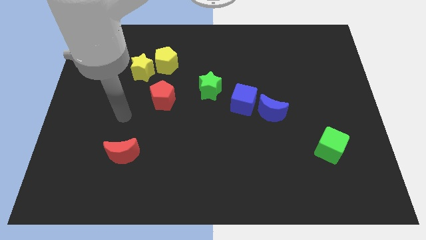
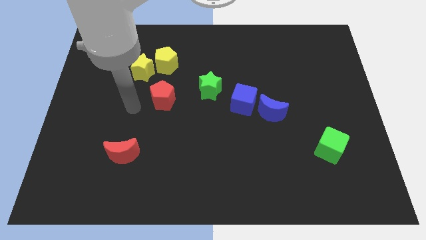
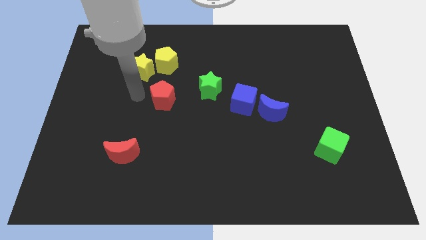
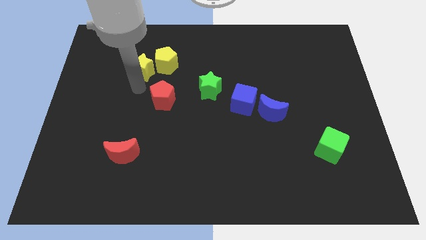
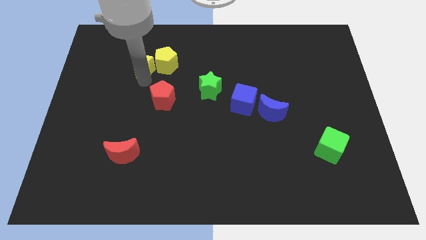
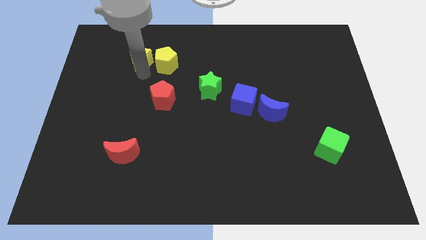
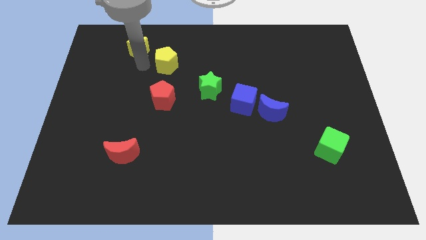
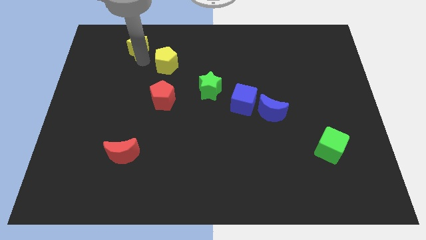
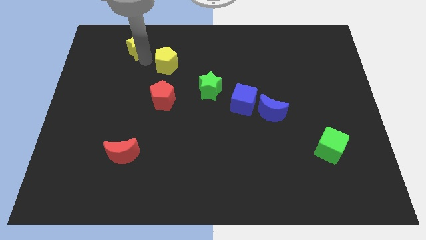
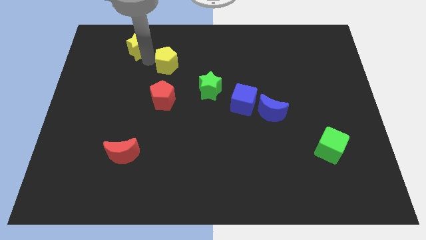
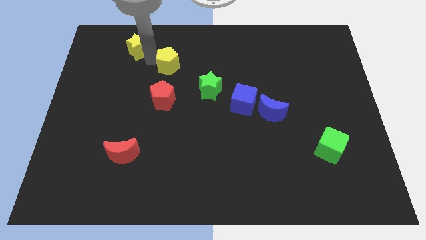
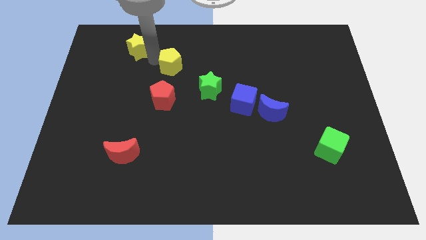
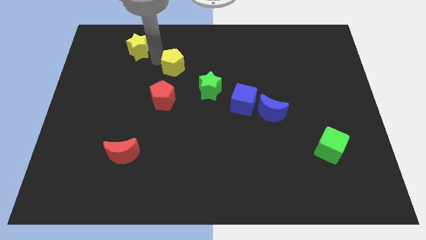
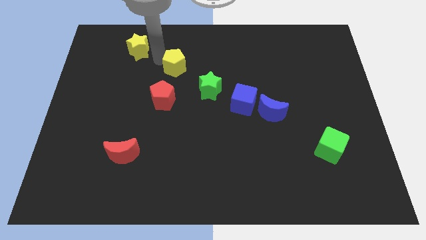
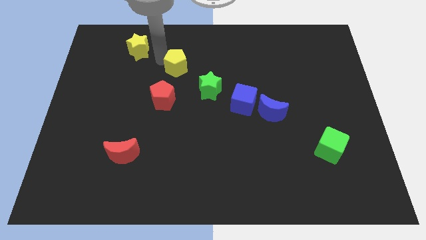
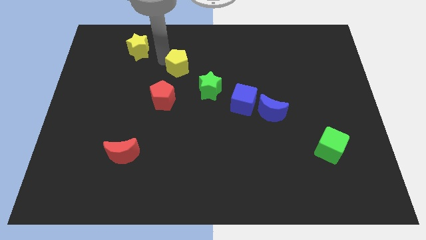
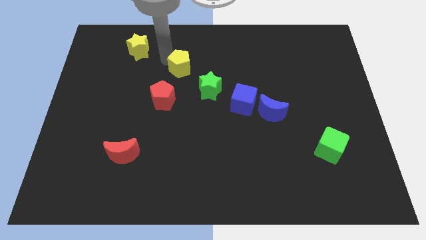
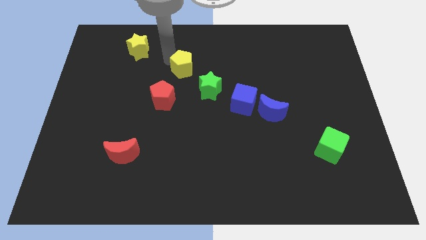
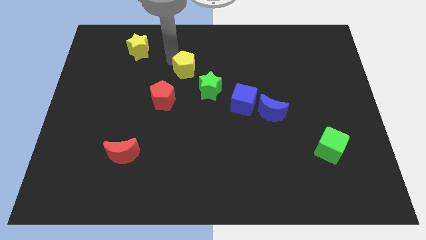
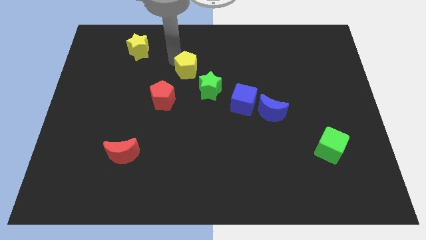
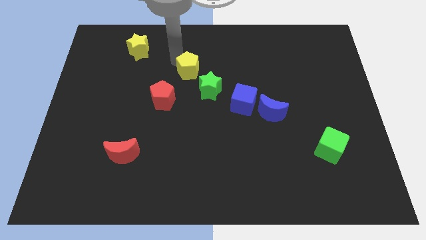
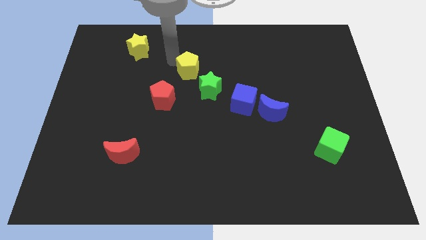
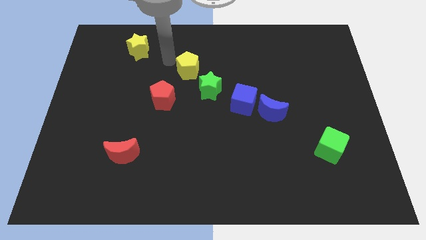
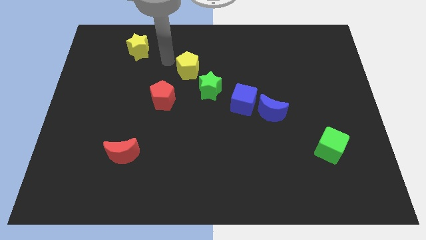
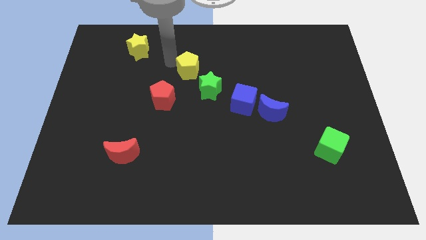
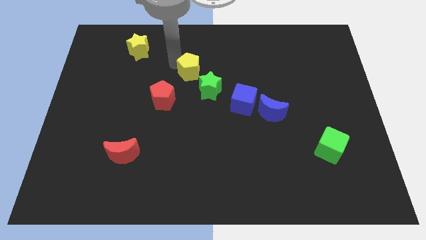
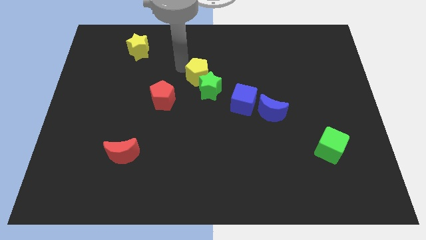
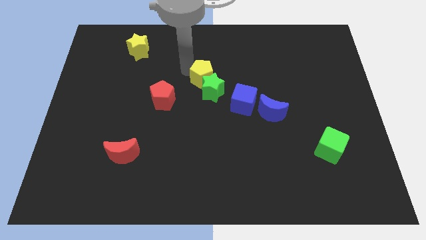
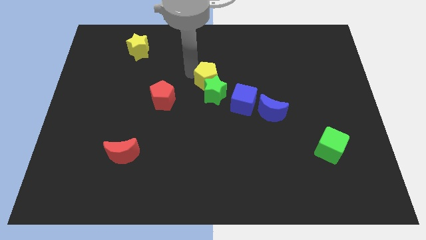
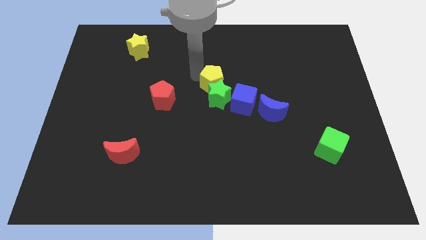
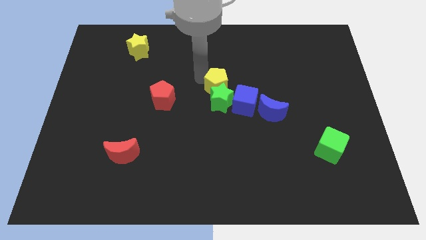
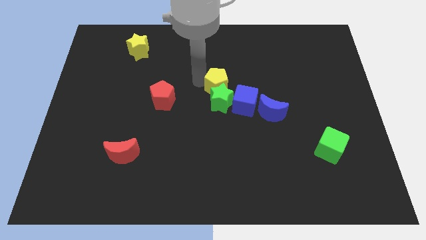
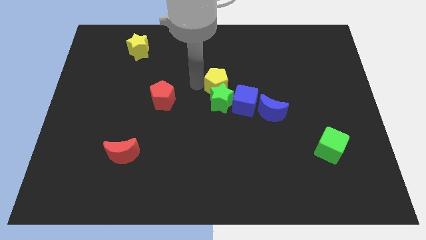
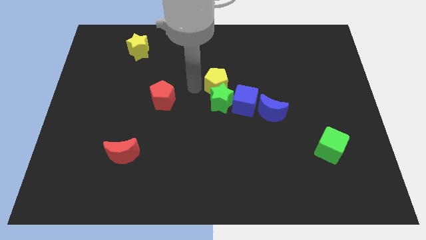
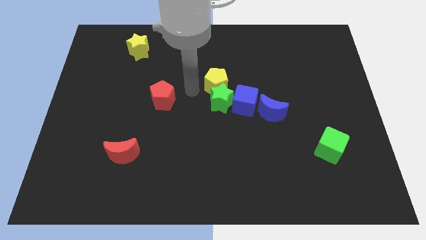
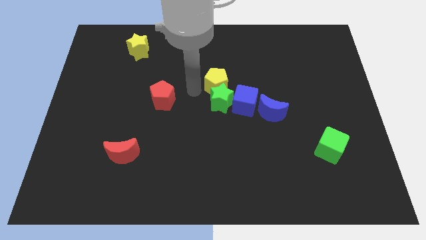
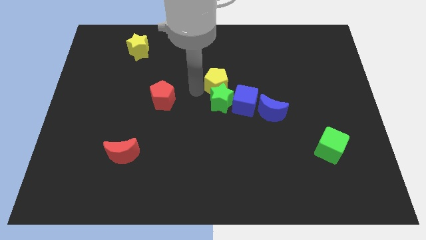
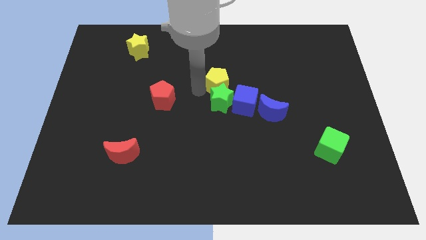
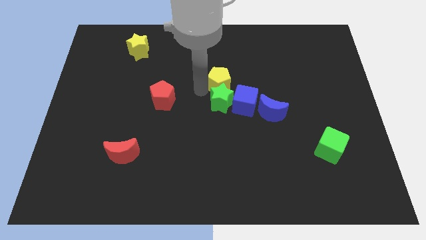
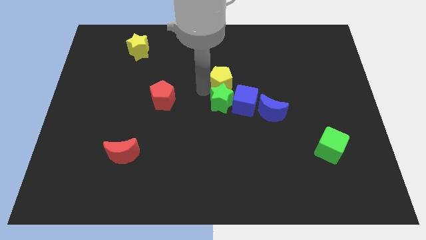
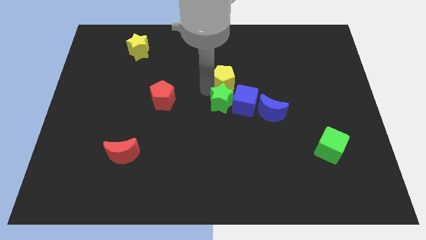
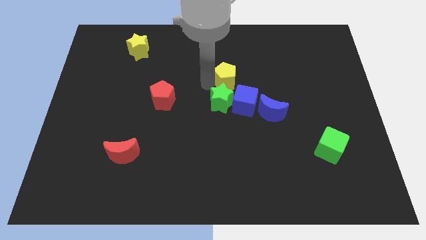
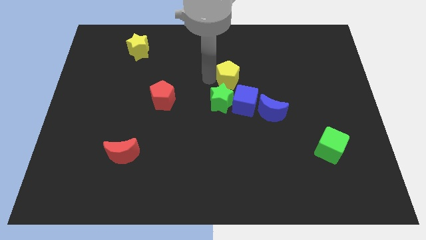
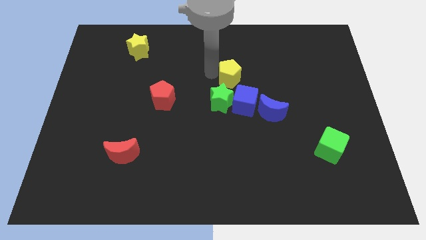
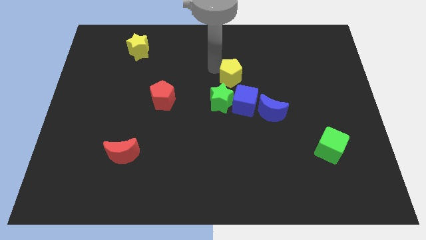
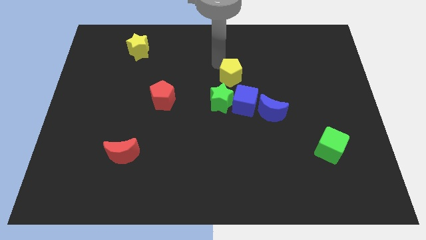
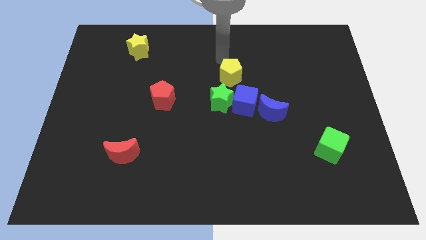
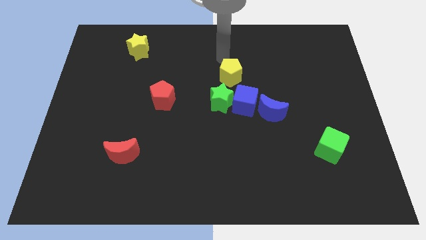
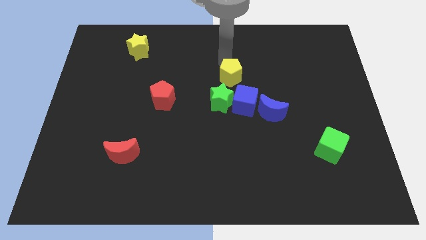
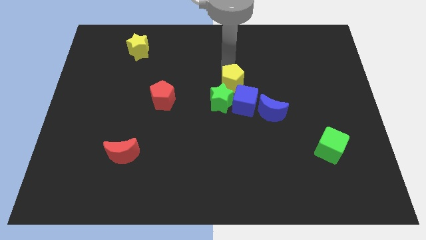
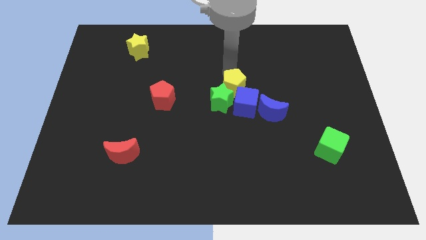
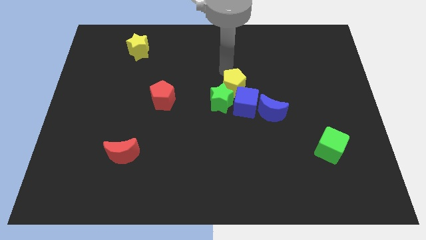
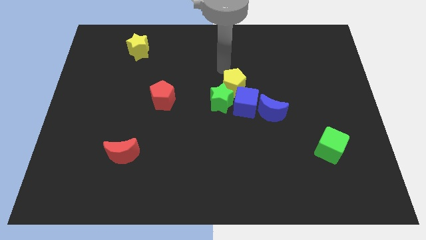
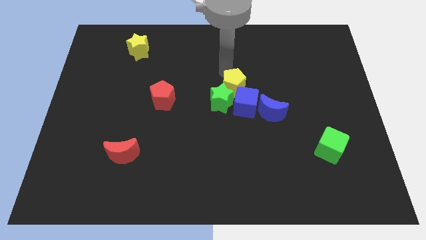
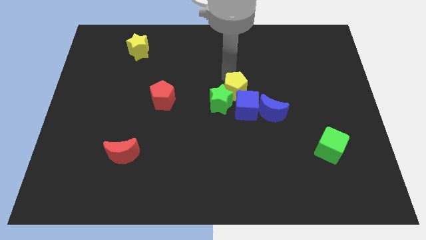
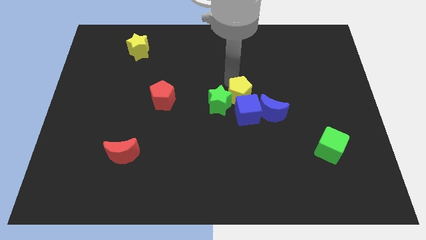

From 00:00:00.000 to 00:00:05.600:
push the yellow pentagon close to the blue cube

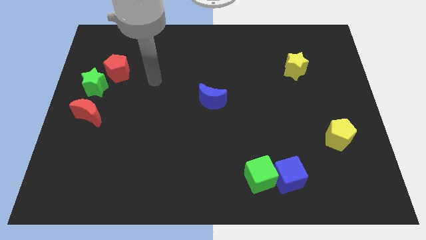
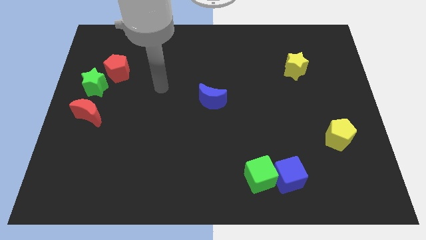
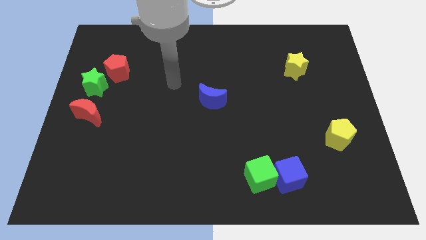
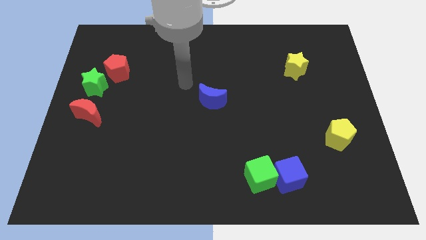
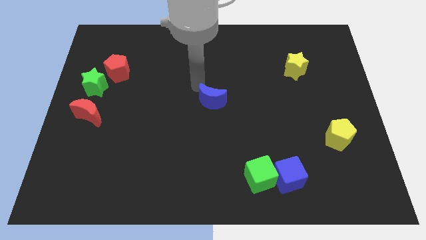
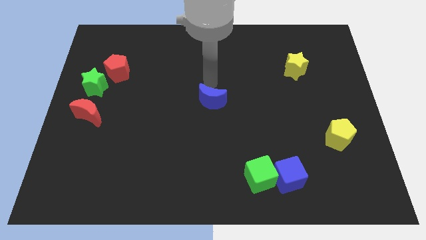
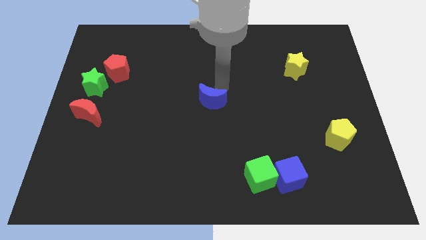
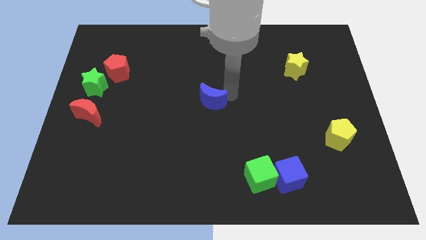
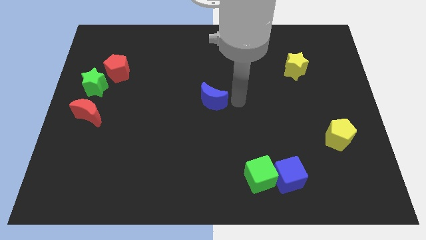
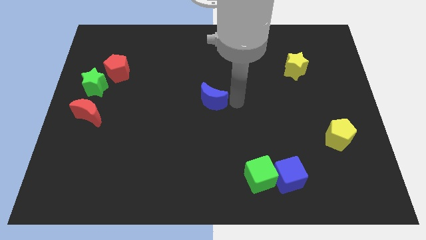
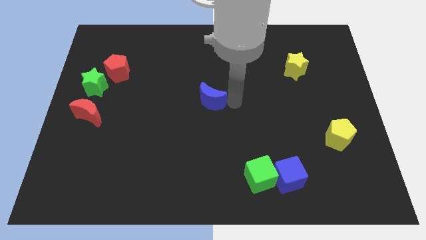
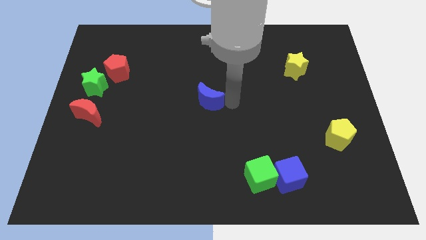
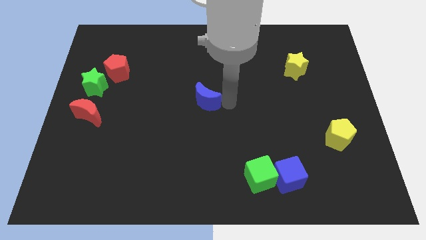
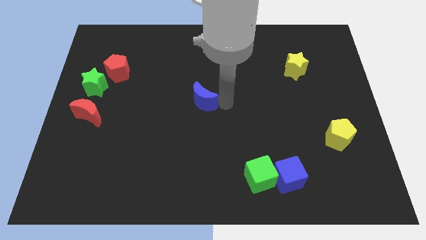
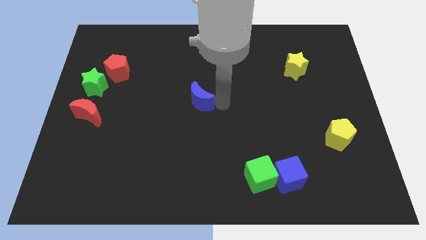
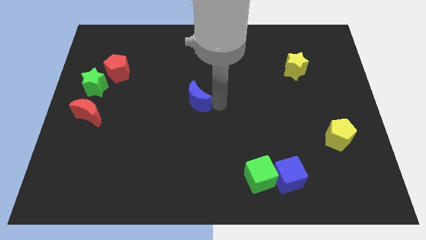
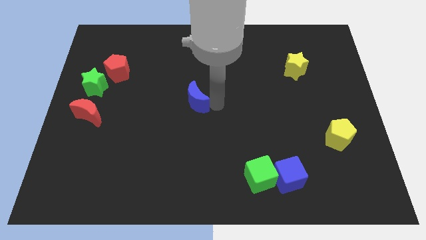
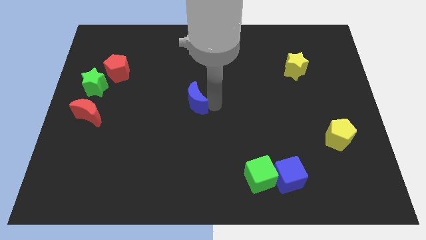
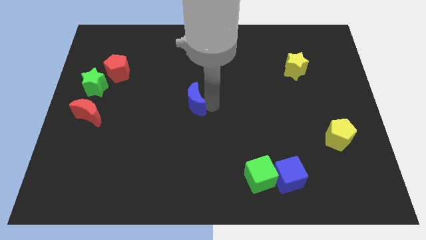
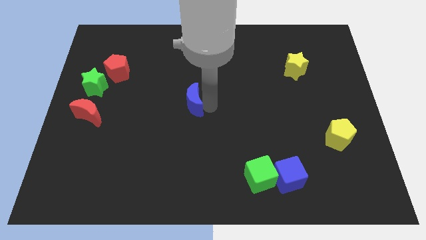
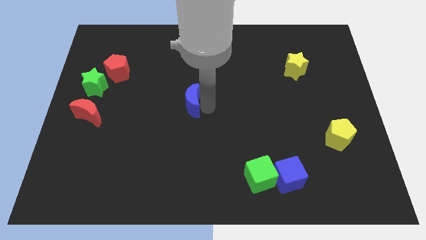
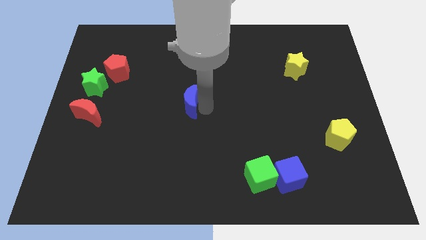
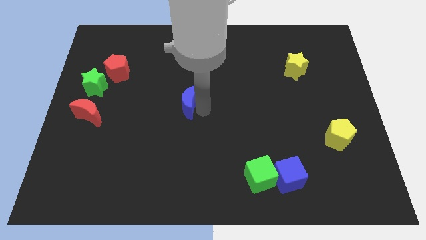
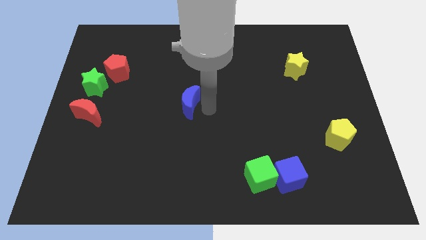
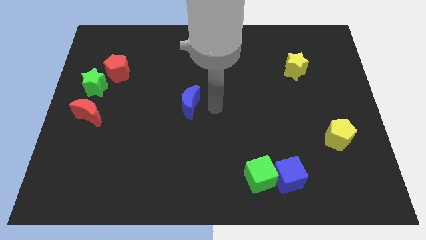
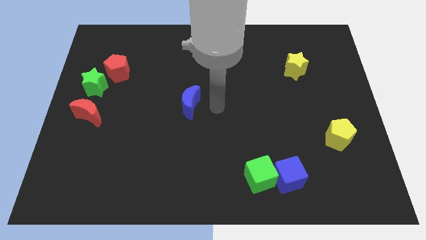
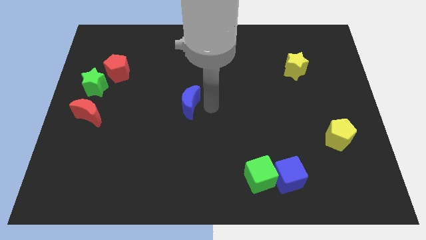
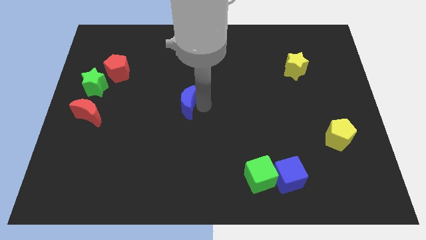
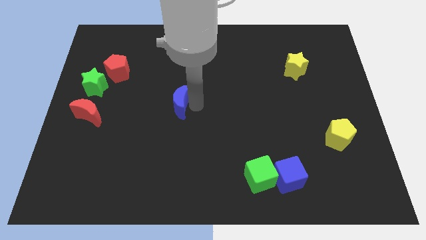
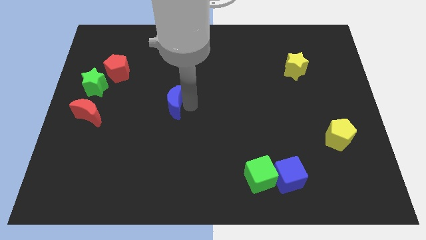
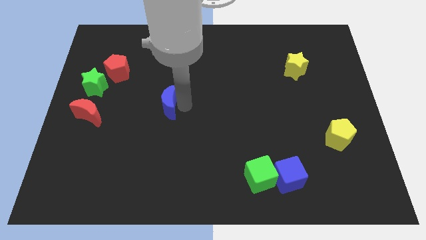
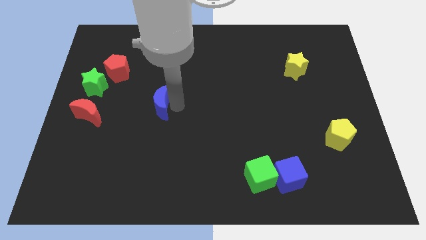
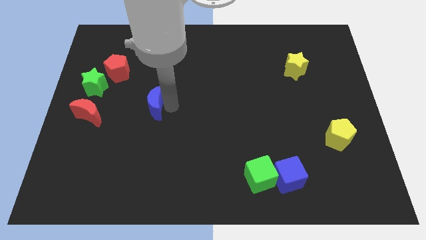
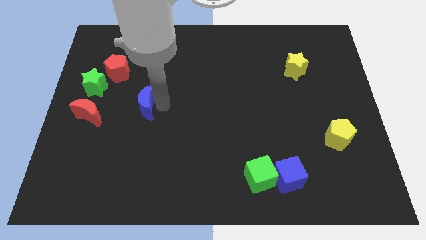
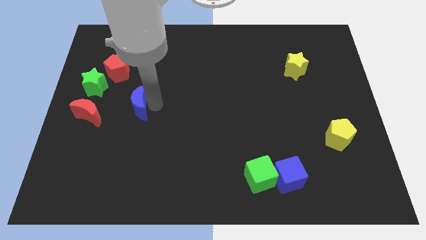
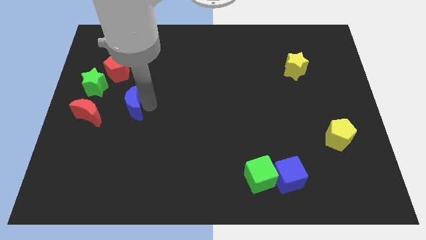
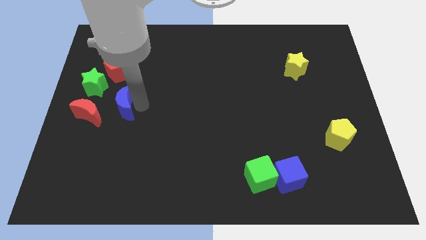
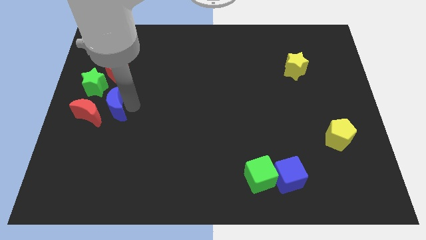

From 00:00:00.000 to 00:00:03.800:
move the blue moon to the red moon
